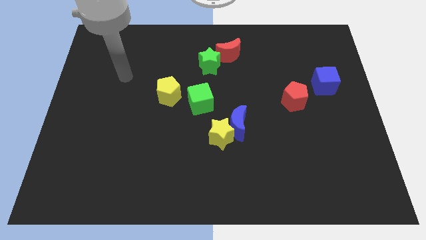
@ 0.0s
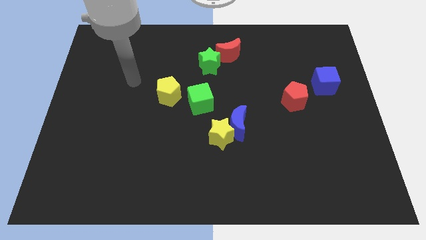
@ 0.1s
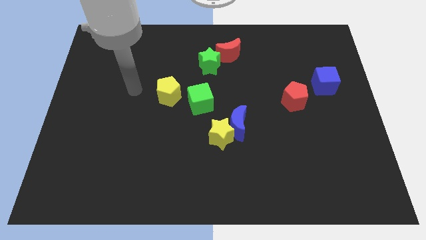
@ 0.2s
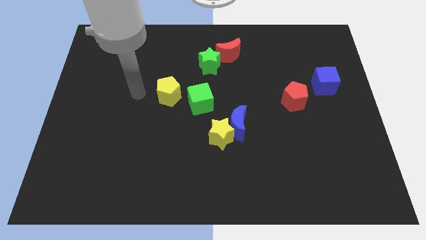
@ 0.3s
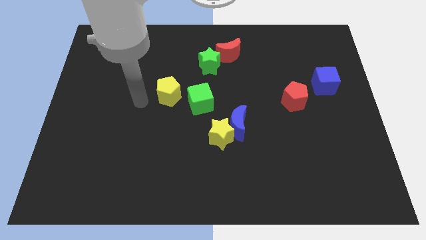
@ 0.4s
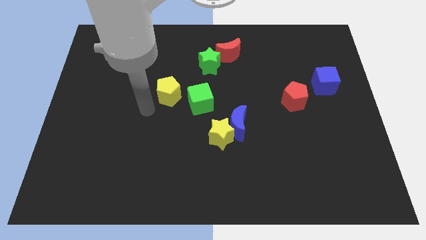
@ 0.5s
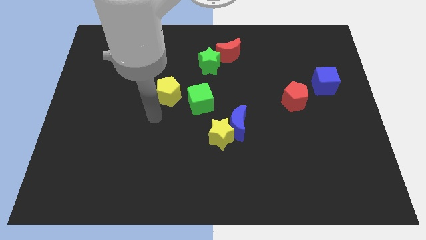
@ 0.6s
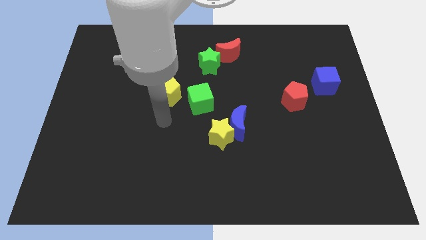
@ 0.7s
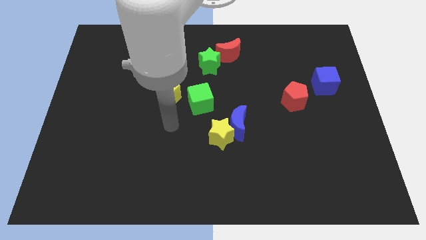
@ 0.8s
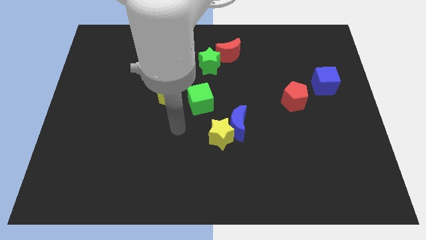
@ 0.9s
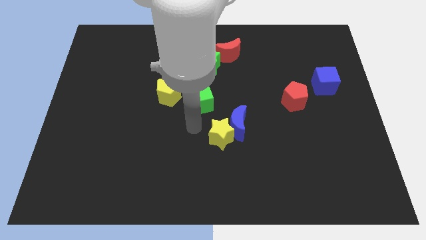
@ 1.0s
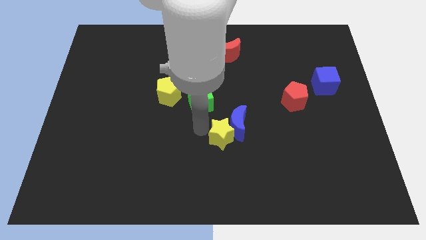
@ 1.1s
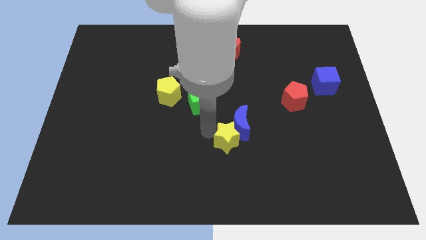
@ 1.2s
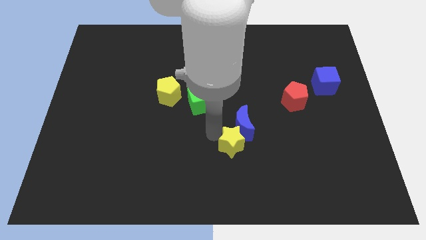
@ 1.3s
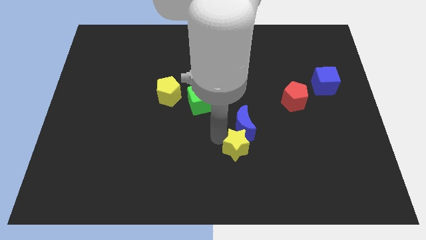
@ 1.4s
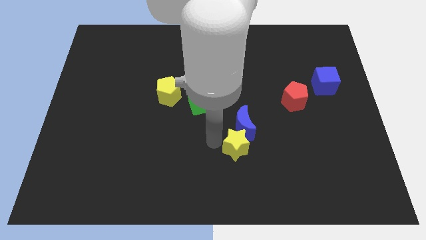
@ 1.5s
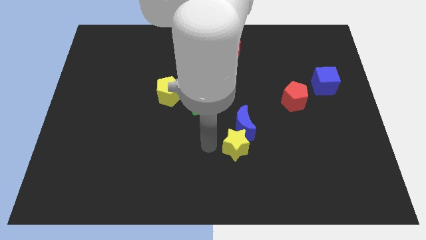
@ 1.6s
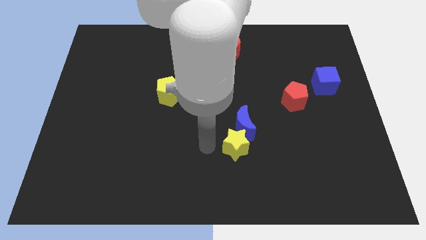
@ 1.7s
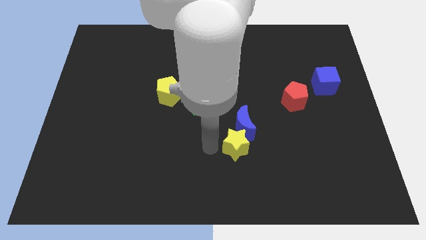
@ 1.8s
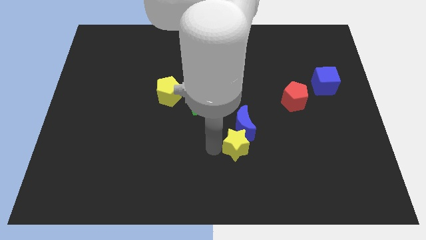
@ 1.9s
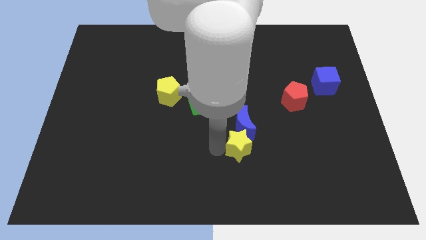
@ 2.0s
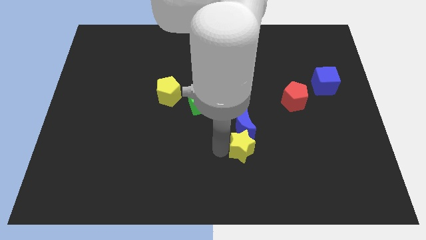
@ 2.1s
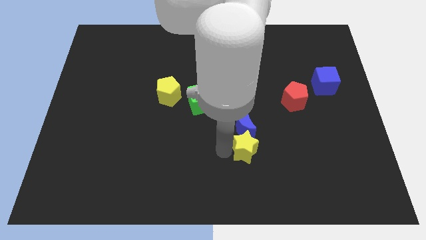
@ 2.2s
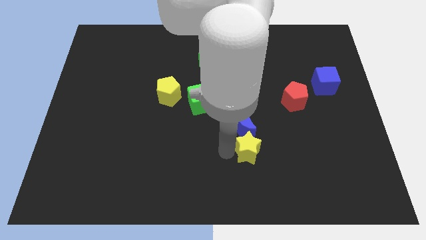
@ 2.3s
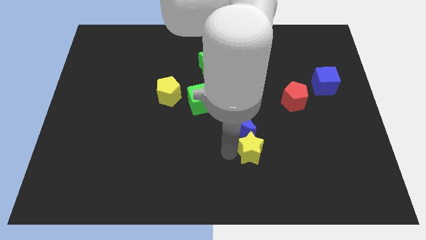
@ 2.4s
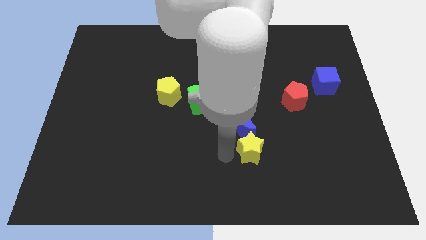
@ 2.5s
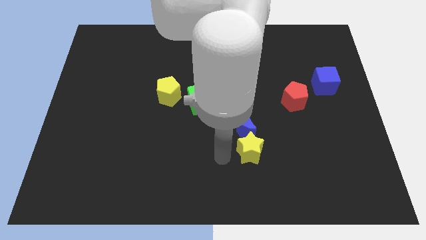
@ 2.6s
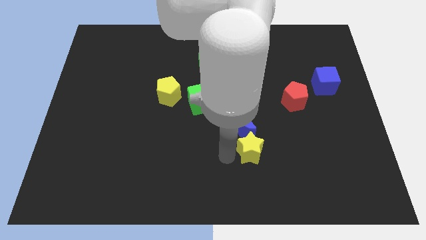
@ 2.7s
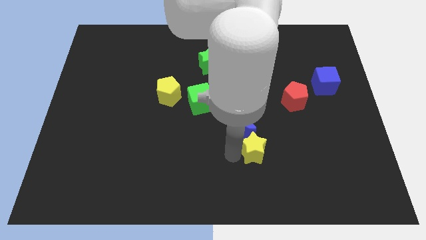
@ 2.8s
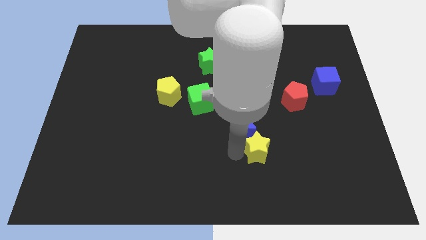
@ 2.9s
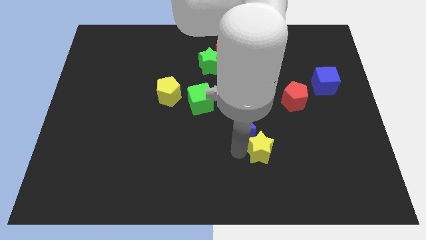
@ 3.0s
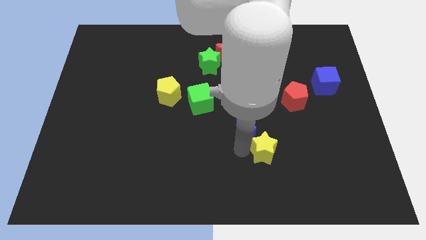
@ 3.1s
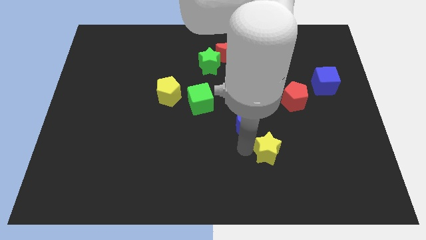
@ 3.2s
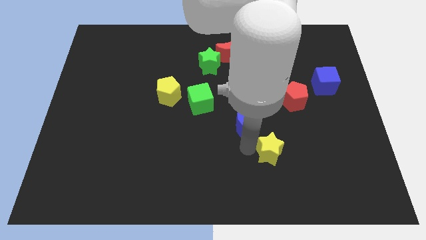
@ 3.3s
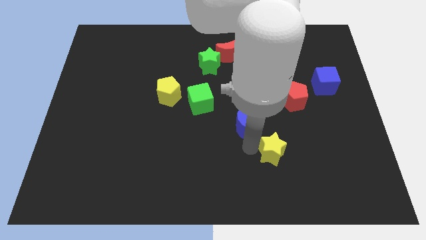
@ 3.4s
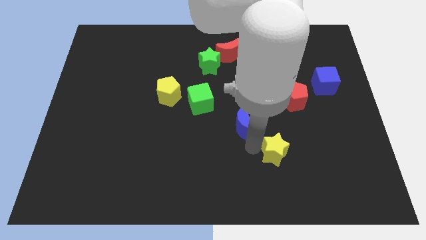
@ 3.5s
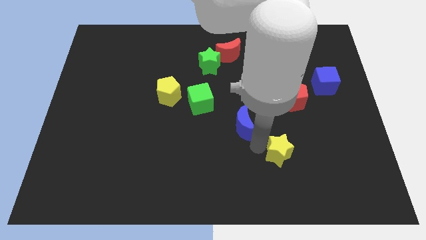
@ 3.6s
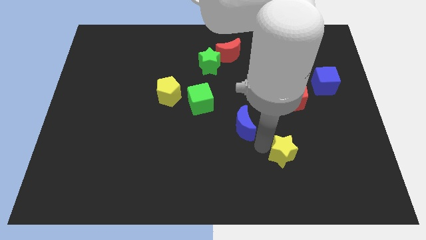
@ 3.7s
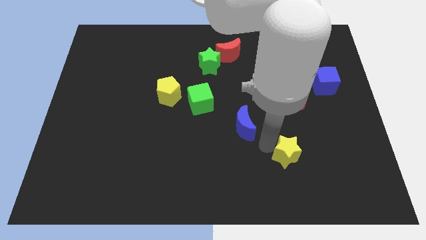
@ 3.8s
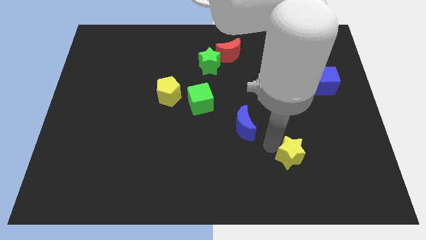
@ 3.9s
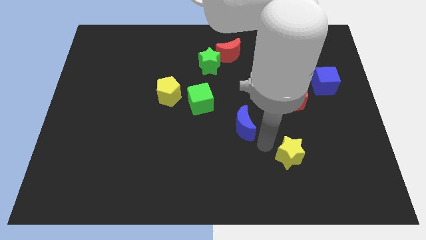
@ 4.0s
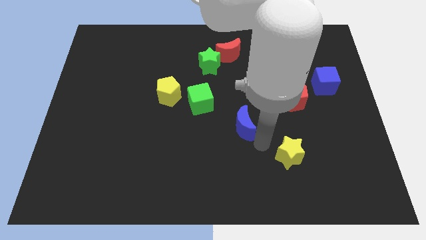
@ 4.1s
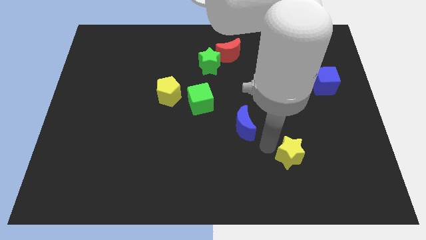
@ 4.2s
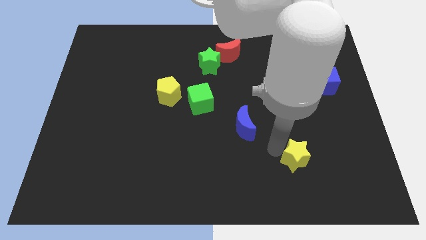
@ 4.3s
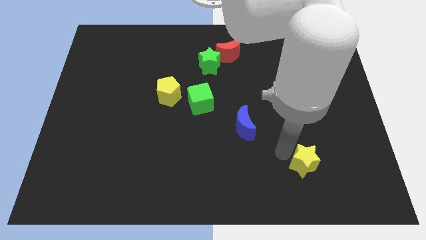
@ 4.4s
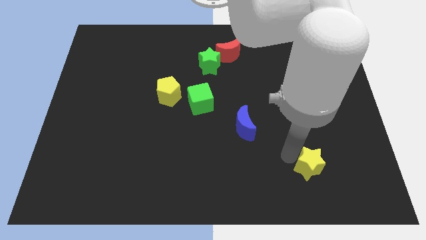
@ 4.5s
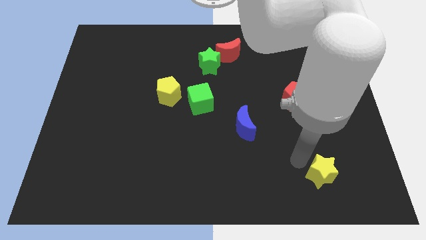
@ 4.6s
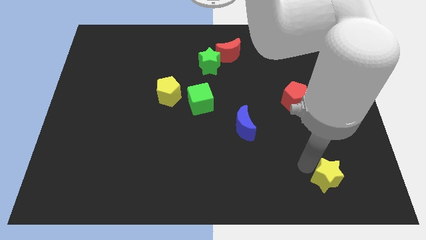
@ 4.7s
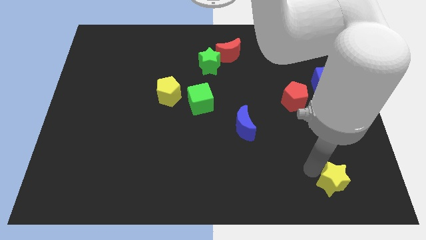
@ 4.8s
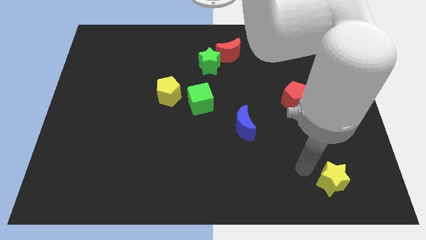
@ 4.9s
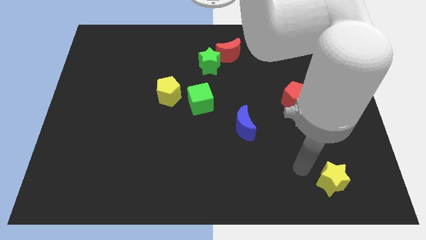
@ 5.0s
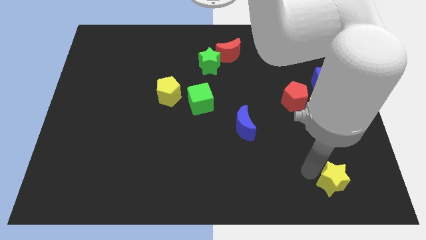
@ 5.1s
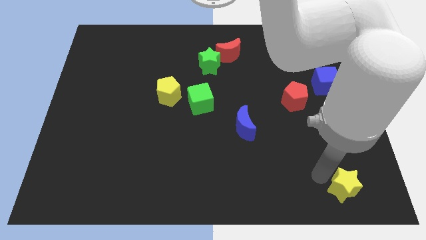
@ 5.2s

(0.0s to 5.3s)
slide the yellow star to the bottom right
